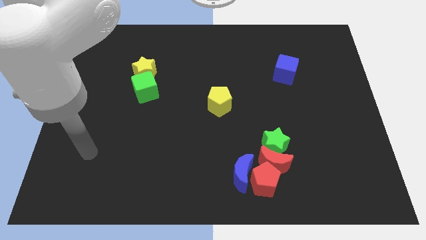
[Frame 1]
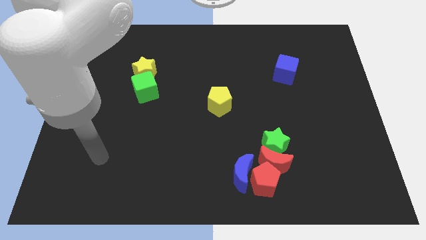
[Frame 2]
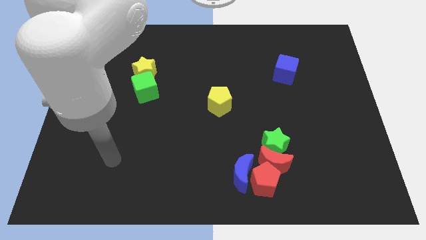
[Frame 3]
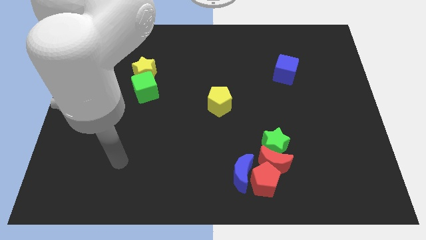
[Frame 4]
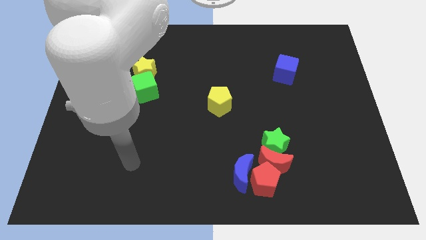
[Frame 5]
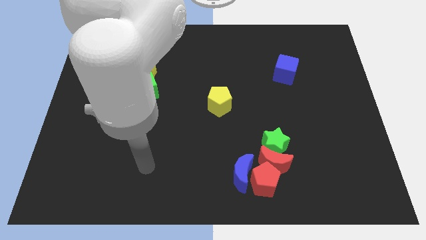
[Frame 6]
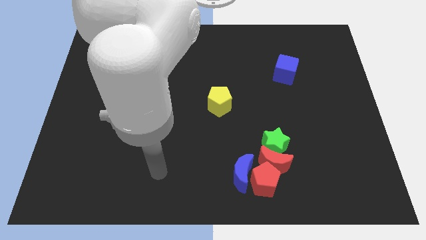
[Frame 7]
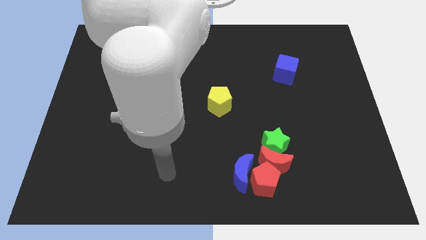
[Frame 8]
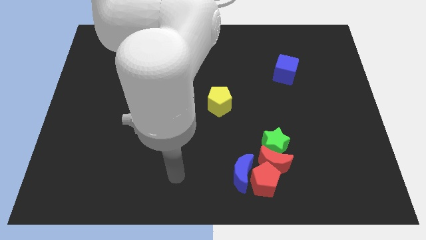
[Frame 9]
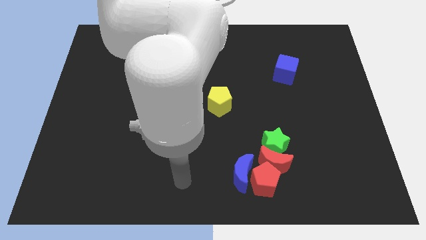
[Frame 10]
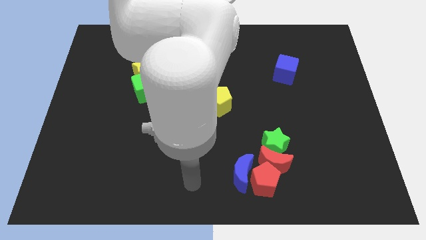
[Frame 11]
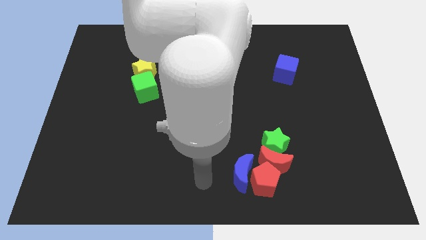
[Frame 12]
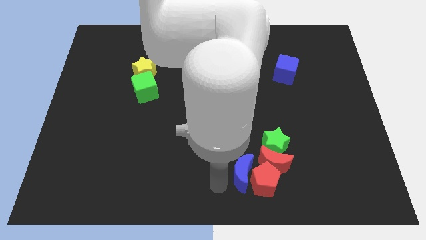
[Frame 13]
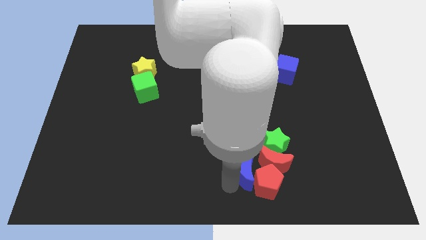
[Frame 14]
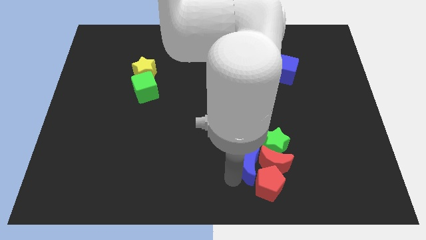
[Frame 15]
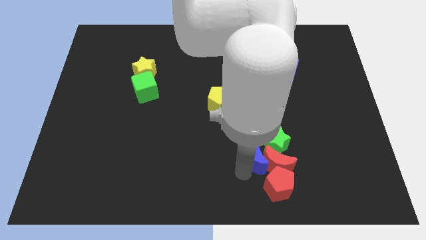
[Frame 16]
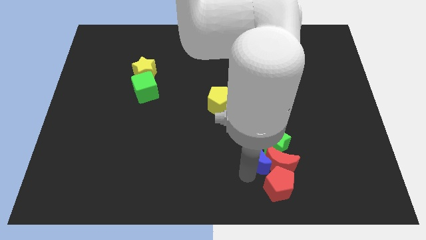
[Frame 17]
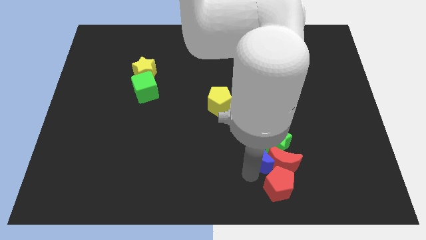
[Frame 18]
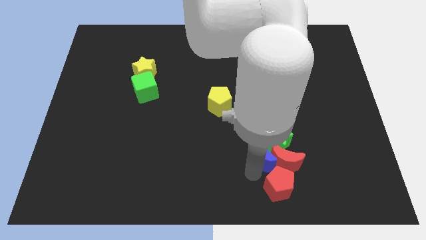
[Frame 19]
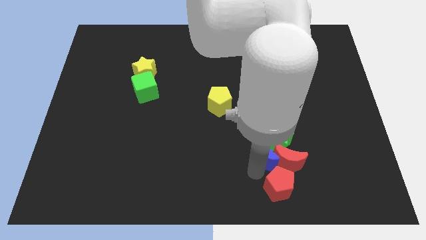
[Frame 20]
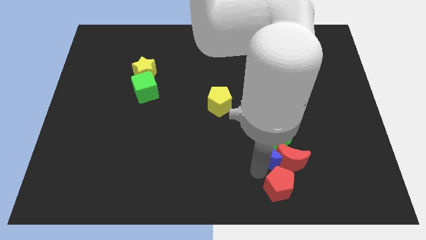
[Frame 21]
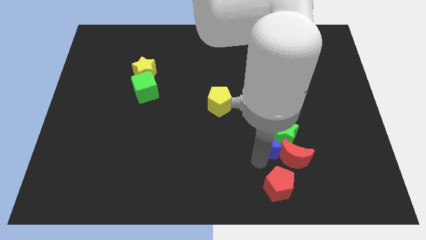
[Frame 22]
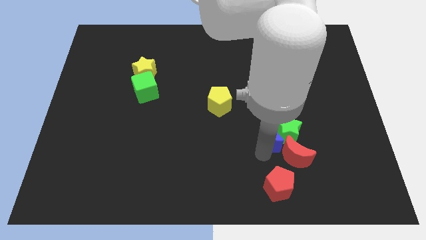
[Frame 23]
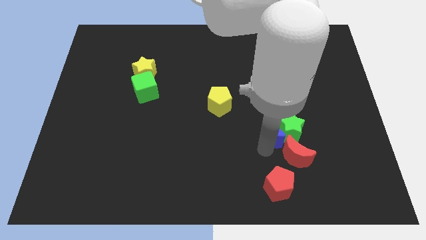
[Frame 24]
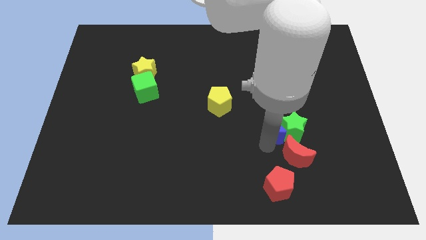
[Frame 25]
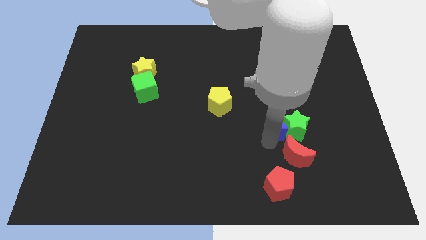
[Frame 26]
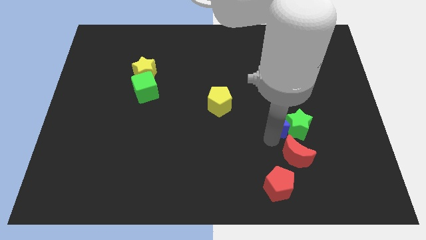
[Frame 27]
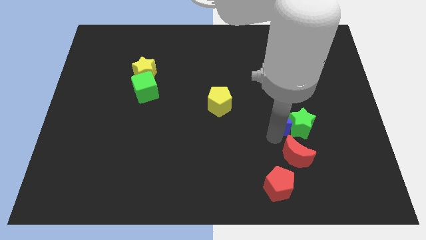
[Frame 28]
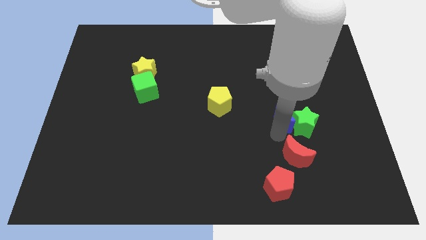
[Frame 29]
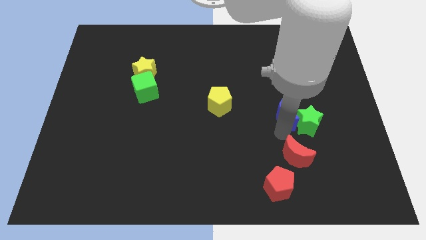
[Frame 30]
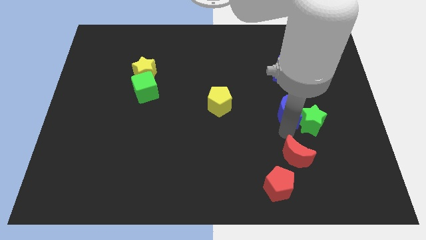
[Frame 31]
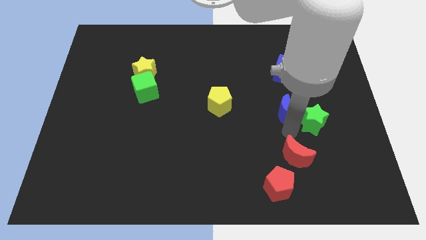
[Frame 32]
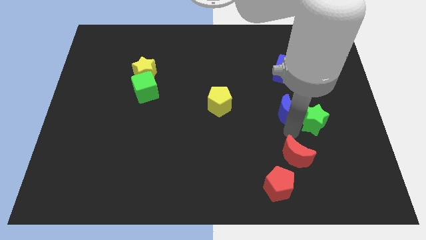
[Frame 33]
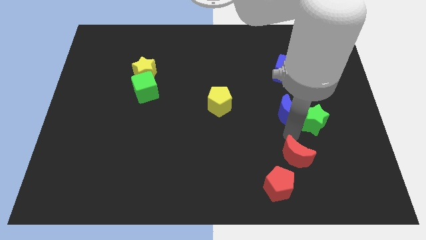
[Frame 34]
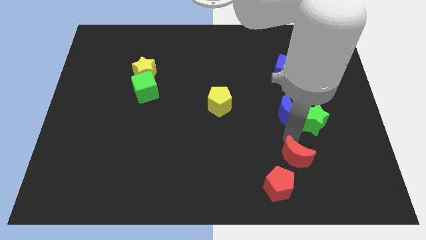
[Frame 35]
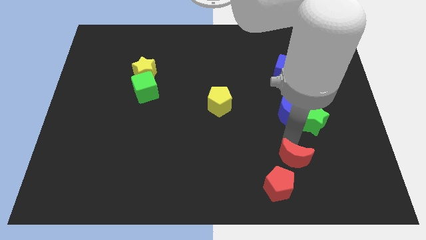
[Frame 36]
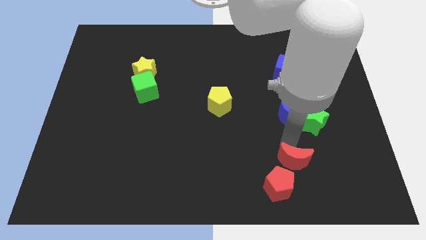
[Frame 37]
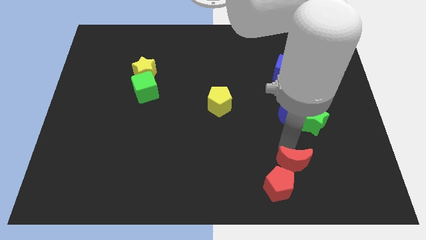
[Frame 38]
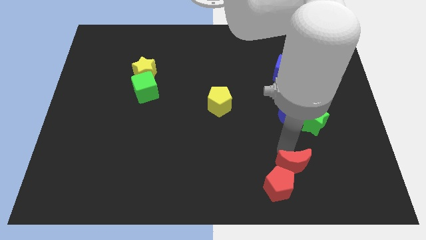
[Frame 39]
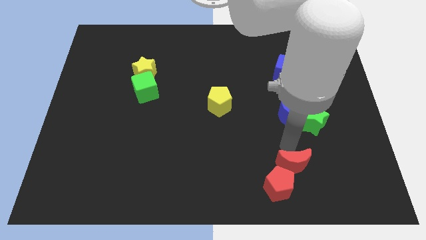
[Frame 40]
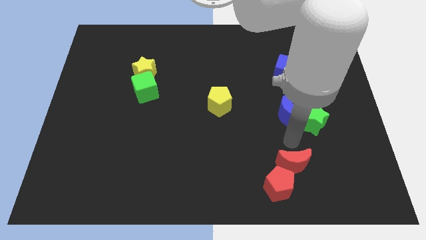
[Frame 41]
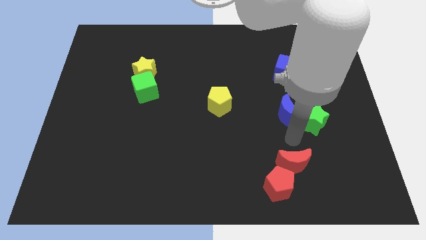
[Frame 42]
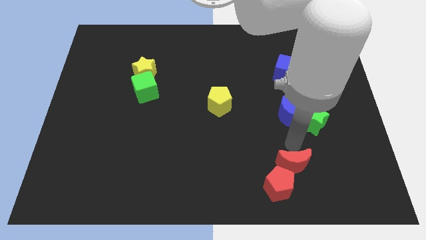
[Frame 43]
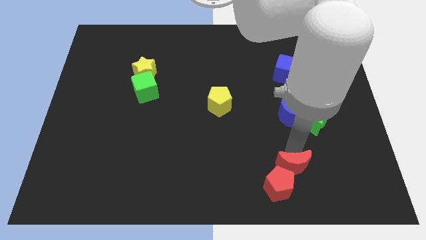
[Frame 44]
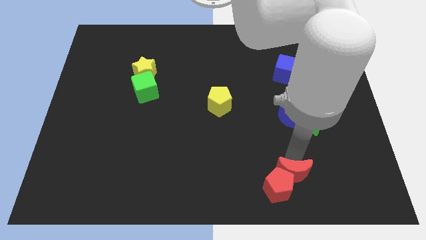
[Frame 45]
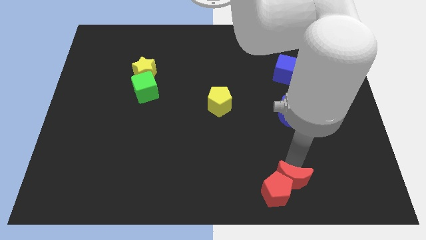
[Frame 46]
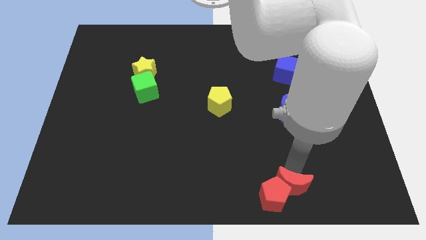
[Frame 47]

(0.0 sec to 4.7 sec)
move the red moon away from the green star, red pentagon, and blue moon

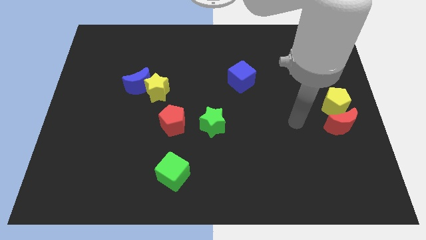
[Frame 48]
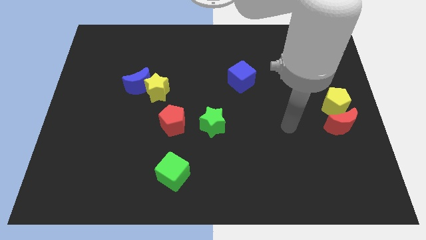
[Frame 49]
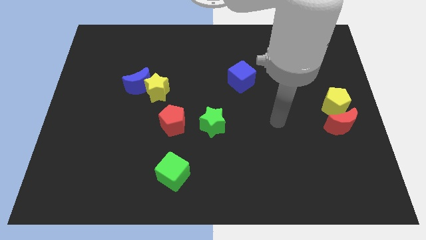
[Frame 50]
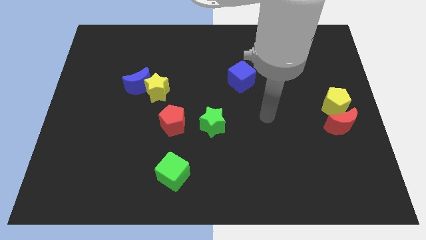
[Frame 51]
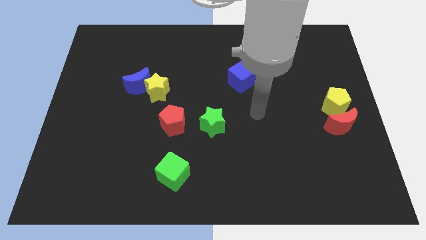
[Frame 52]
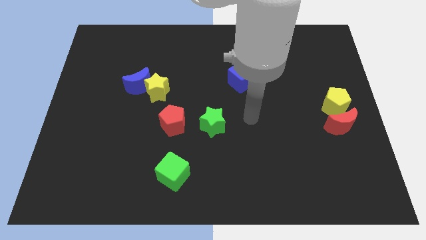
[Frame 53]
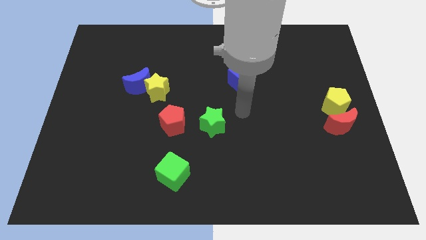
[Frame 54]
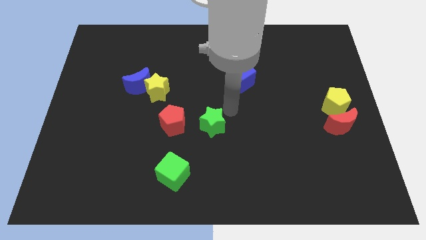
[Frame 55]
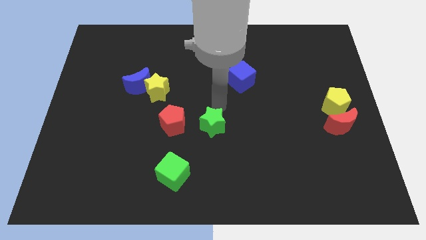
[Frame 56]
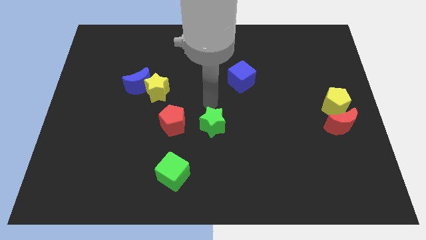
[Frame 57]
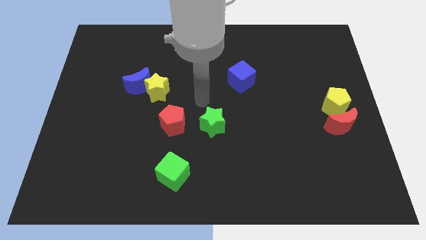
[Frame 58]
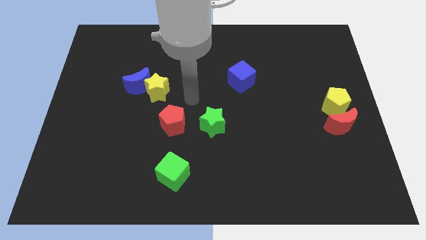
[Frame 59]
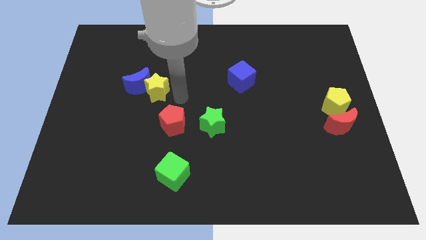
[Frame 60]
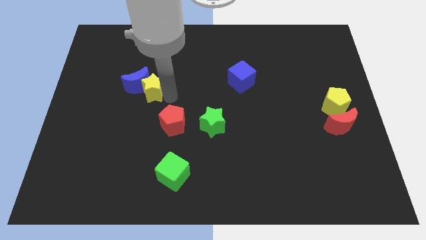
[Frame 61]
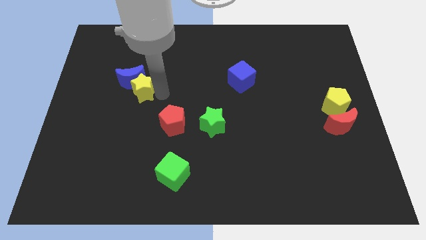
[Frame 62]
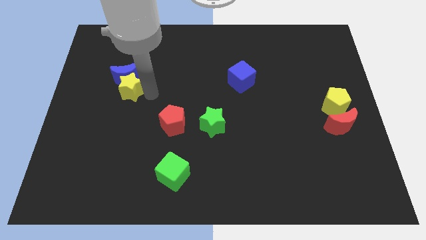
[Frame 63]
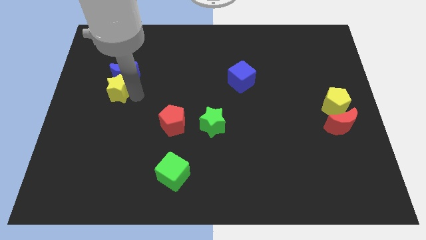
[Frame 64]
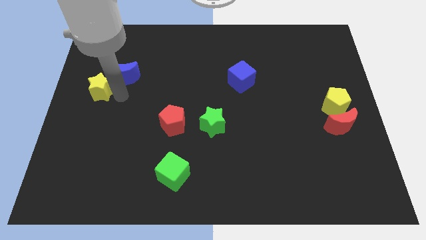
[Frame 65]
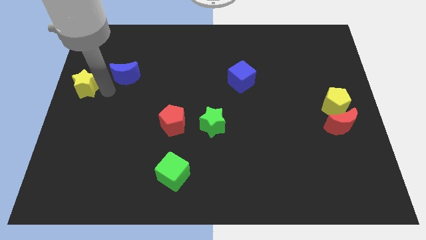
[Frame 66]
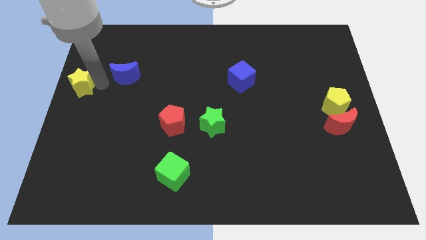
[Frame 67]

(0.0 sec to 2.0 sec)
move the blue moon away from the yellow star

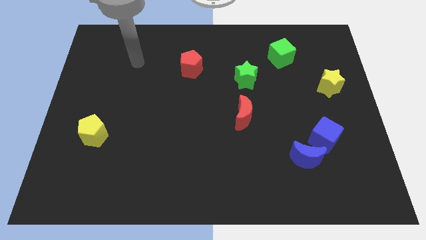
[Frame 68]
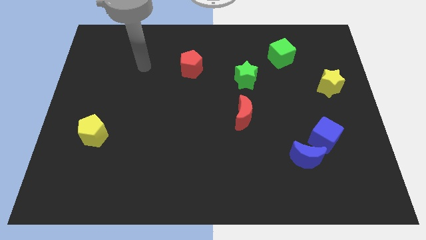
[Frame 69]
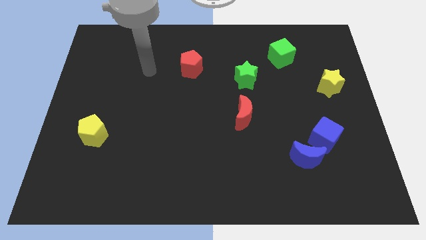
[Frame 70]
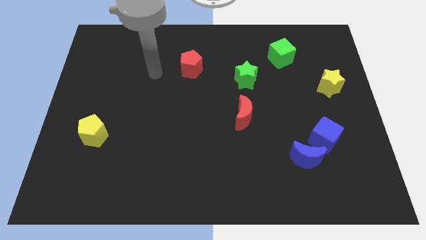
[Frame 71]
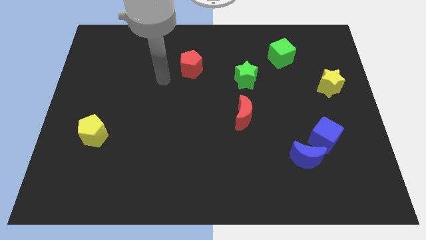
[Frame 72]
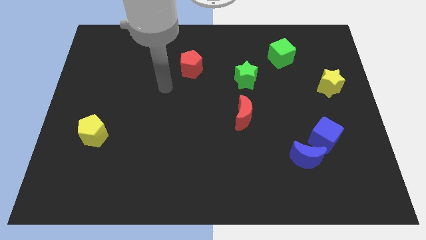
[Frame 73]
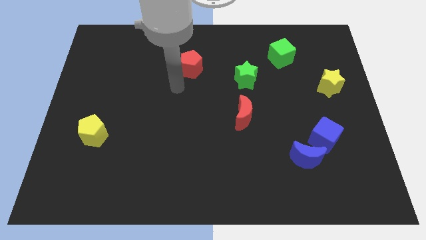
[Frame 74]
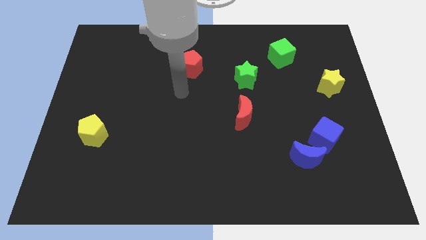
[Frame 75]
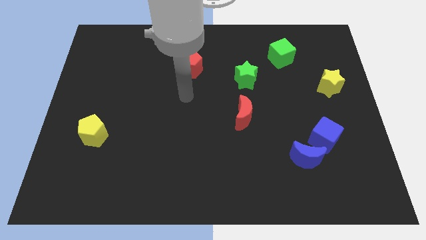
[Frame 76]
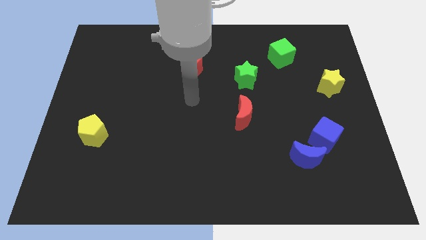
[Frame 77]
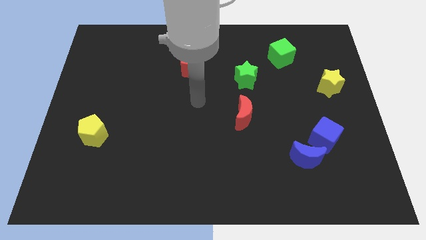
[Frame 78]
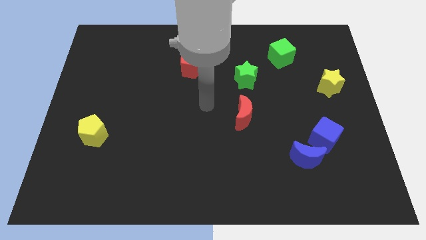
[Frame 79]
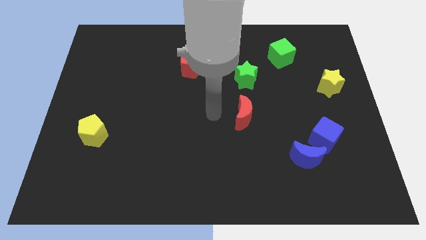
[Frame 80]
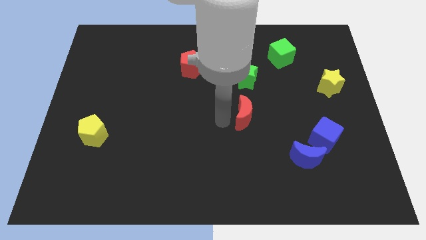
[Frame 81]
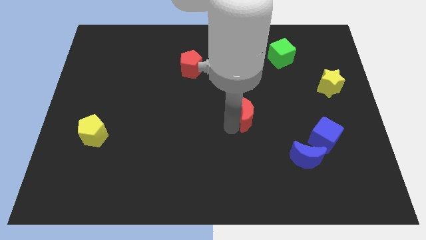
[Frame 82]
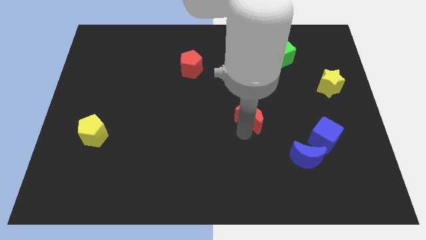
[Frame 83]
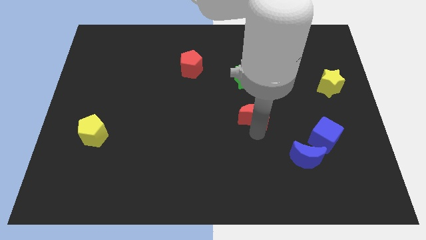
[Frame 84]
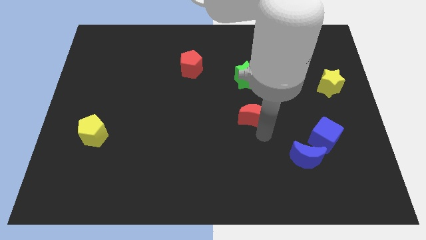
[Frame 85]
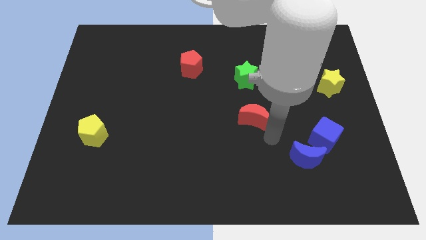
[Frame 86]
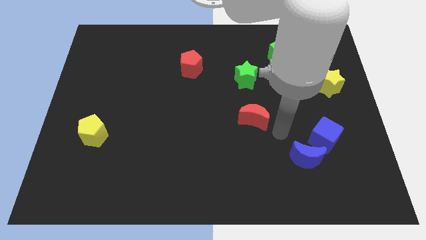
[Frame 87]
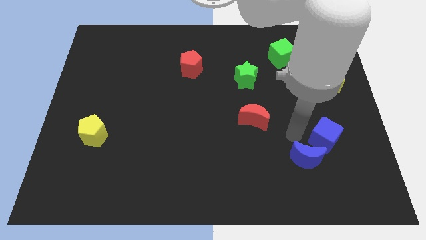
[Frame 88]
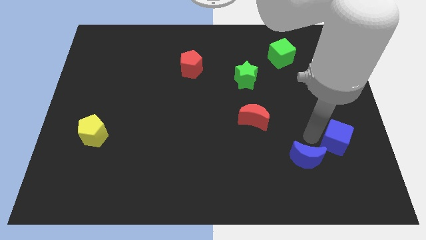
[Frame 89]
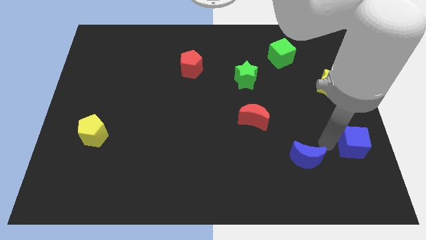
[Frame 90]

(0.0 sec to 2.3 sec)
move the blue moon away from the blue cube

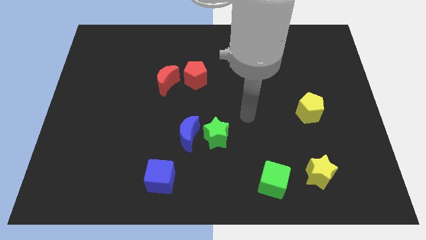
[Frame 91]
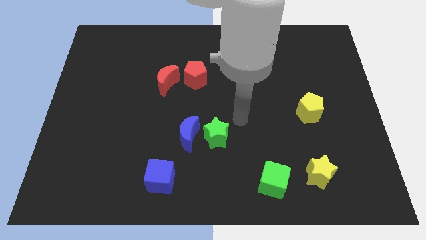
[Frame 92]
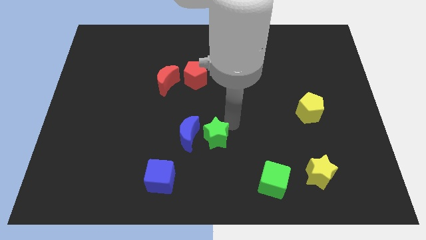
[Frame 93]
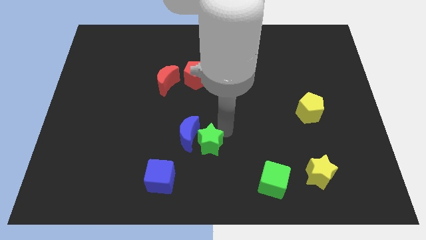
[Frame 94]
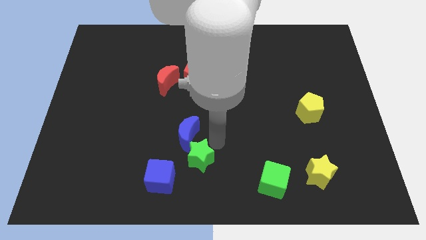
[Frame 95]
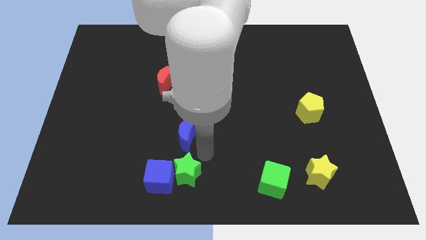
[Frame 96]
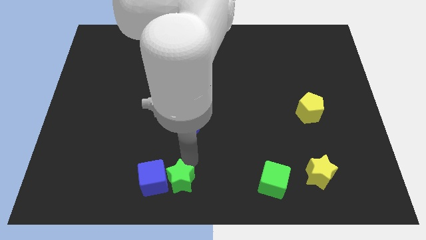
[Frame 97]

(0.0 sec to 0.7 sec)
pull the blue moon apart from the green star
